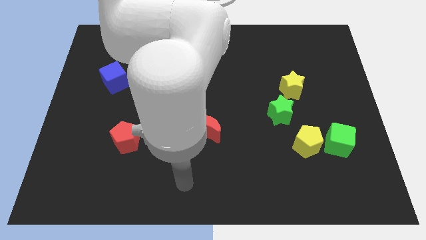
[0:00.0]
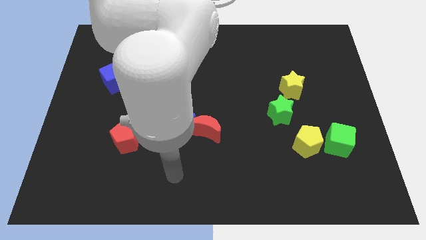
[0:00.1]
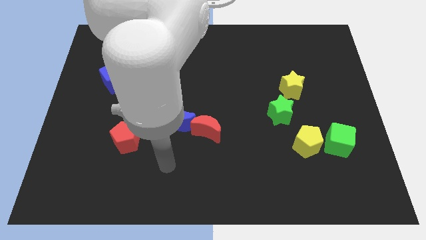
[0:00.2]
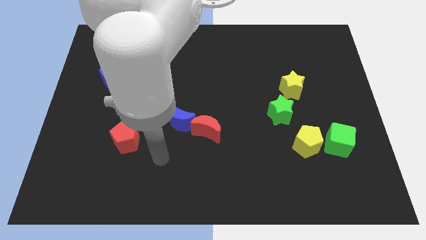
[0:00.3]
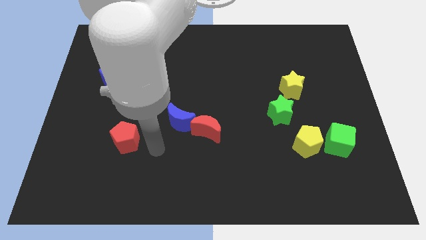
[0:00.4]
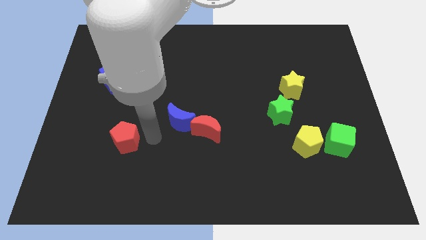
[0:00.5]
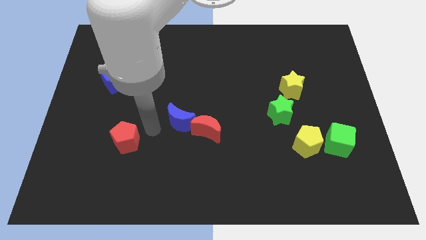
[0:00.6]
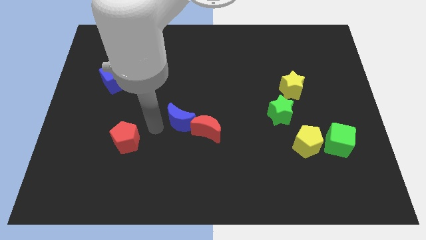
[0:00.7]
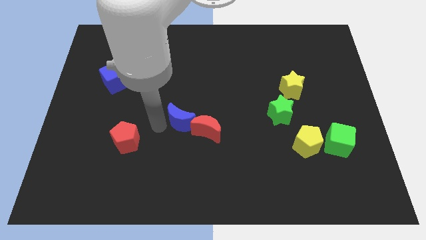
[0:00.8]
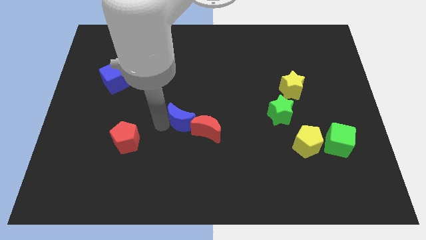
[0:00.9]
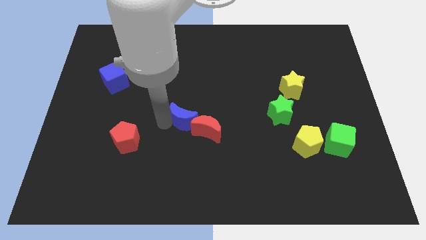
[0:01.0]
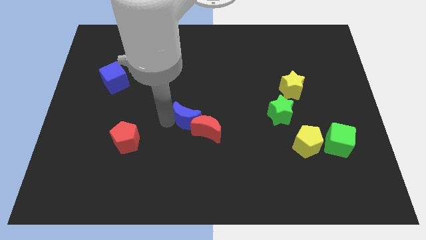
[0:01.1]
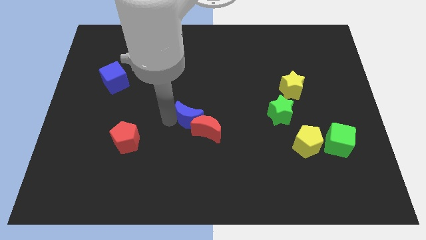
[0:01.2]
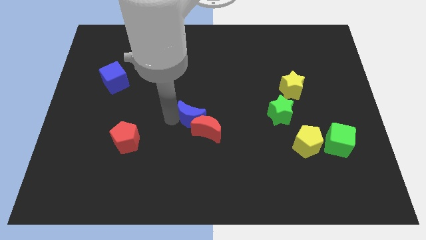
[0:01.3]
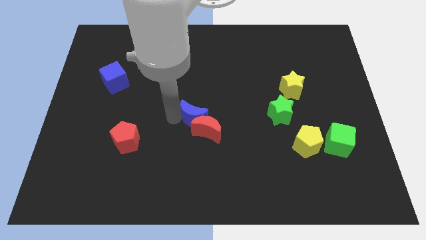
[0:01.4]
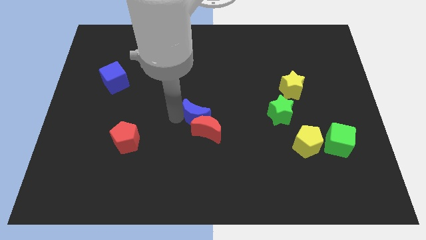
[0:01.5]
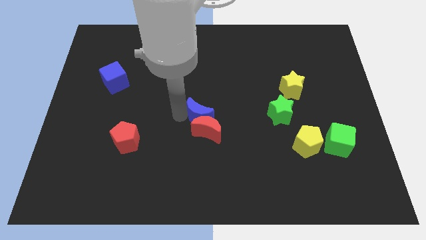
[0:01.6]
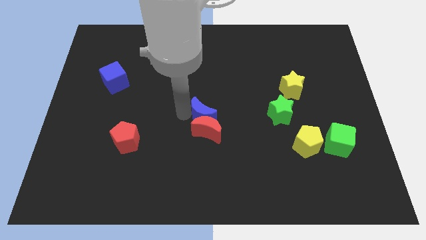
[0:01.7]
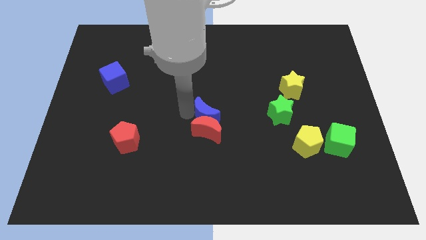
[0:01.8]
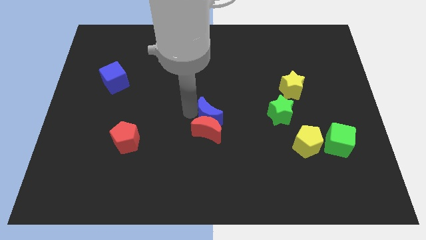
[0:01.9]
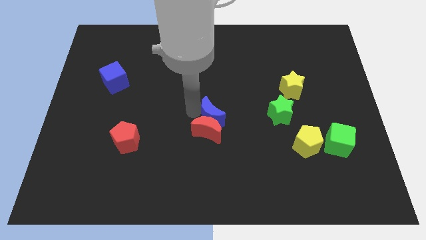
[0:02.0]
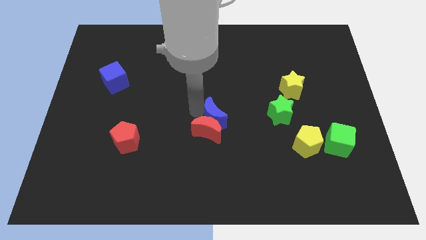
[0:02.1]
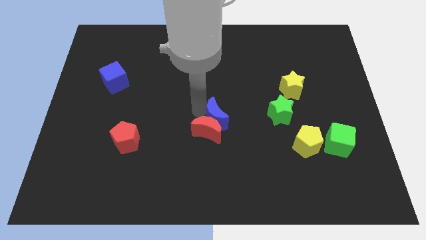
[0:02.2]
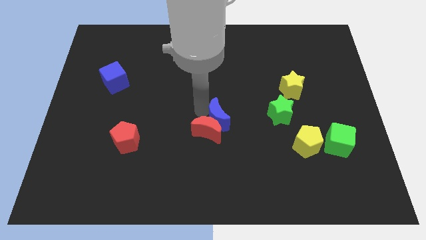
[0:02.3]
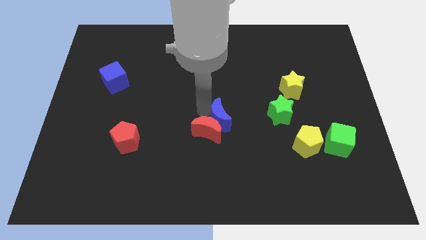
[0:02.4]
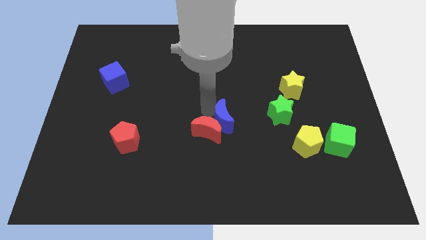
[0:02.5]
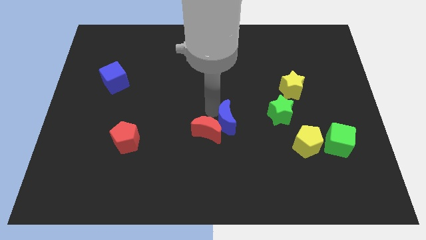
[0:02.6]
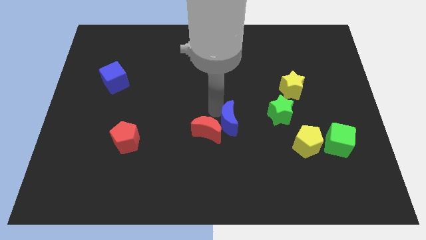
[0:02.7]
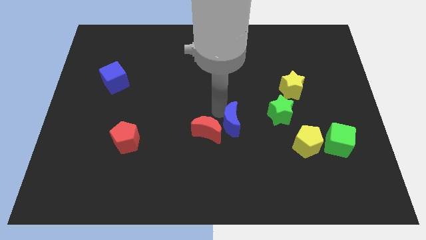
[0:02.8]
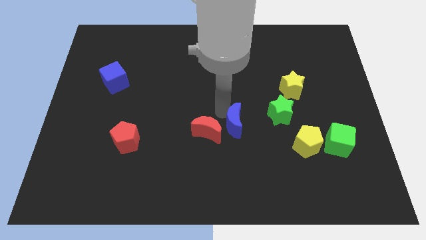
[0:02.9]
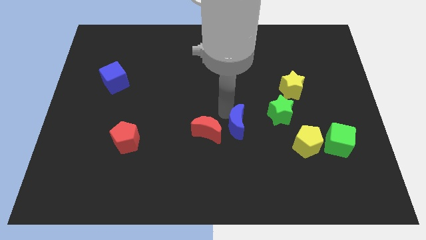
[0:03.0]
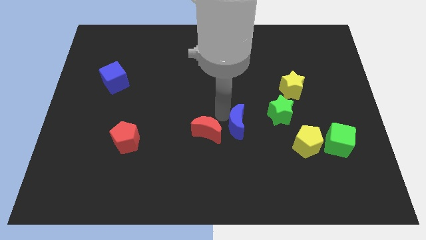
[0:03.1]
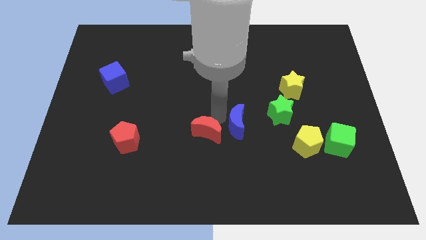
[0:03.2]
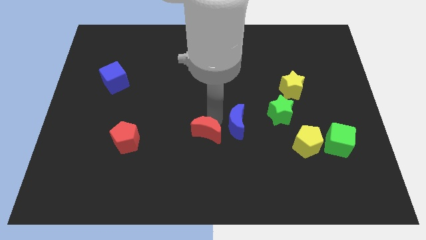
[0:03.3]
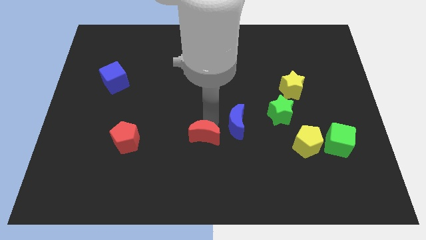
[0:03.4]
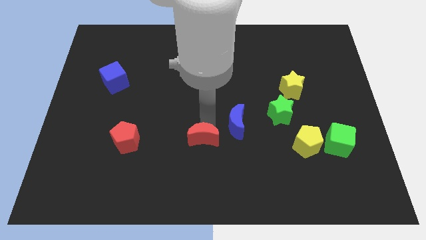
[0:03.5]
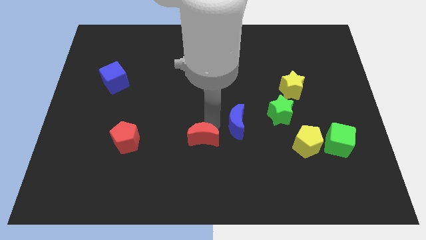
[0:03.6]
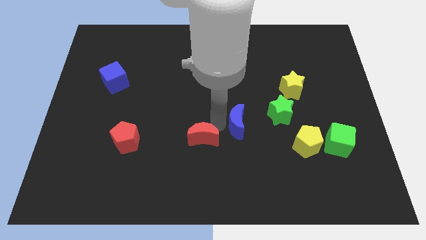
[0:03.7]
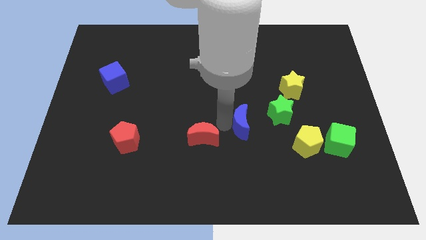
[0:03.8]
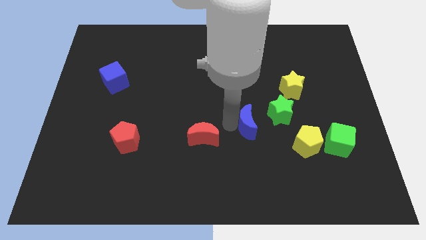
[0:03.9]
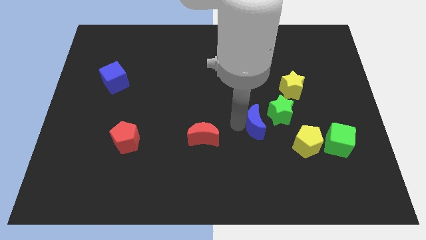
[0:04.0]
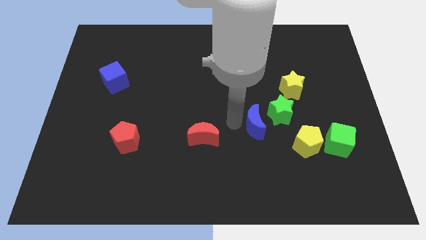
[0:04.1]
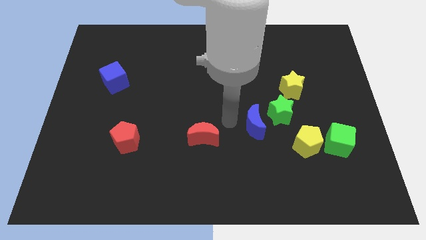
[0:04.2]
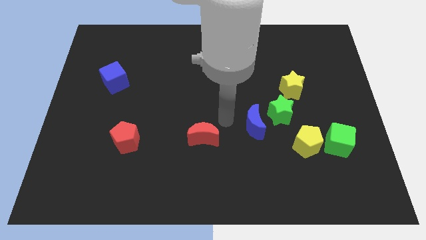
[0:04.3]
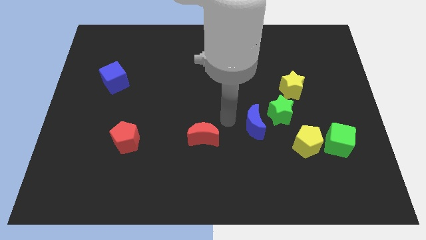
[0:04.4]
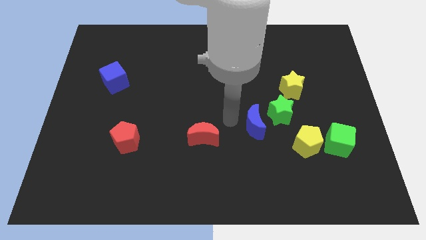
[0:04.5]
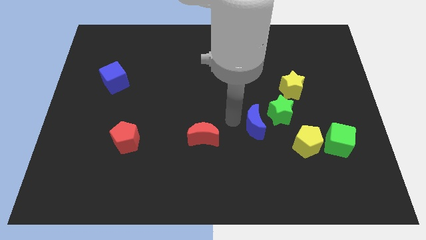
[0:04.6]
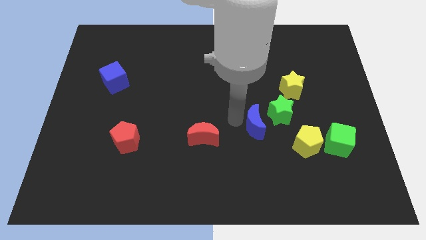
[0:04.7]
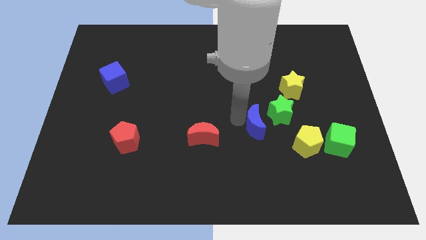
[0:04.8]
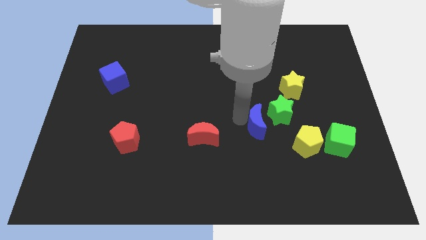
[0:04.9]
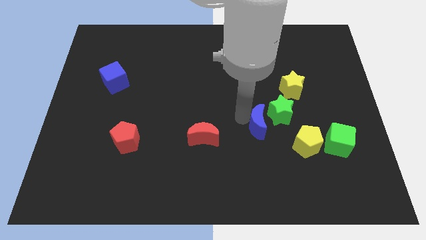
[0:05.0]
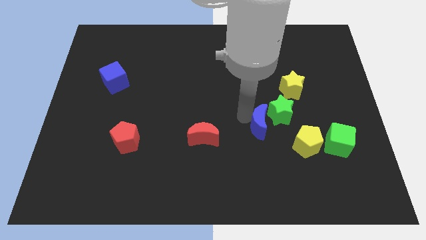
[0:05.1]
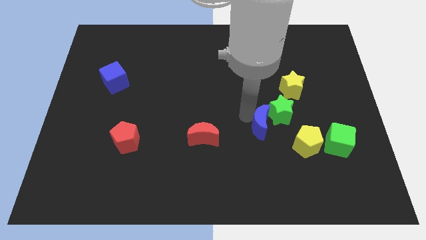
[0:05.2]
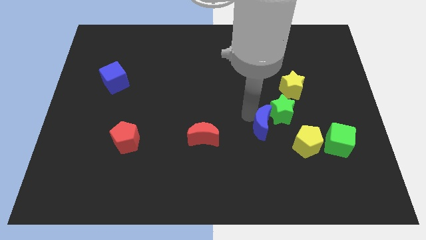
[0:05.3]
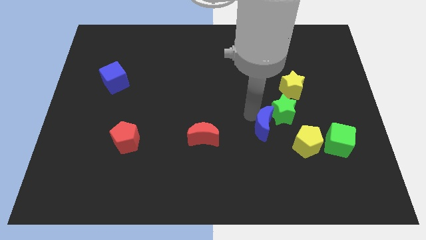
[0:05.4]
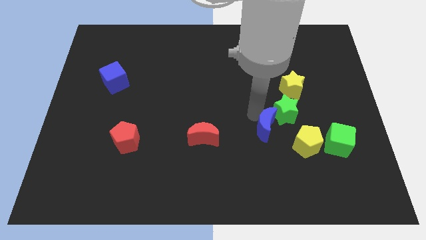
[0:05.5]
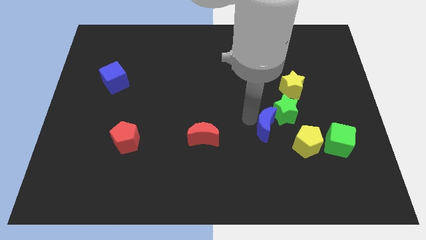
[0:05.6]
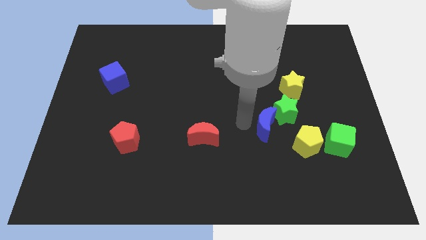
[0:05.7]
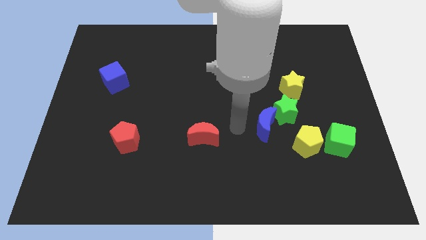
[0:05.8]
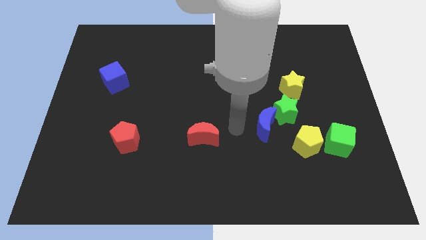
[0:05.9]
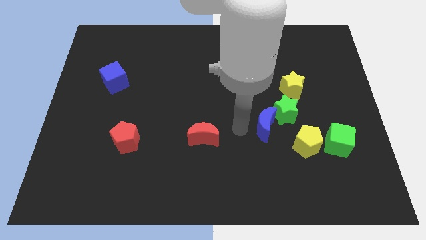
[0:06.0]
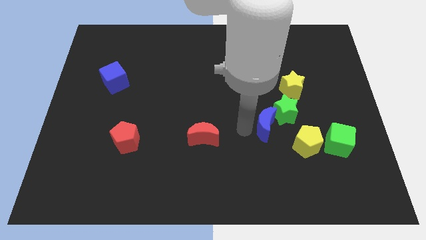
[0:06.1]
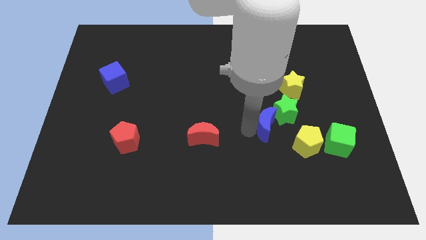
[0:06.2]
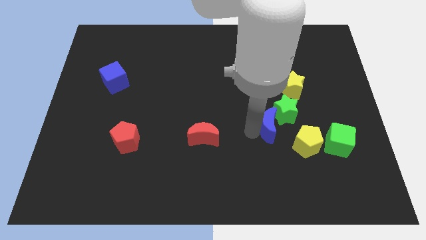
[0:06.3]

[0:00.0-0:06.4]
slide the blue moon to the right

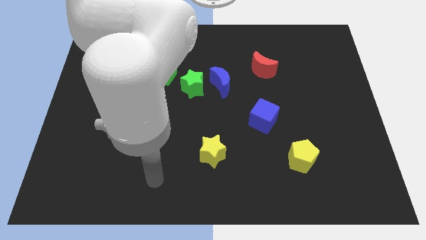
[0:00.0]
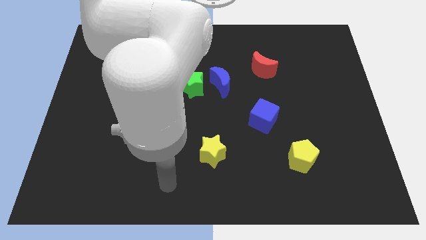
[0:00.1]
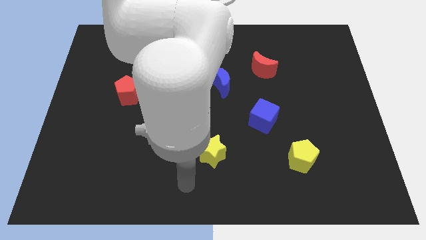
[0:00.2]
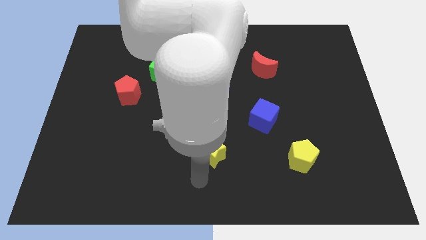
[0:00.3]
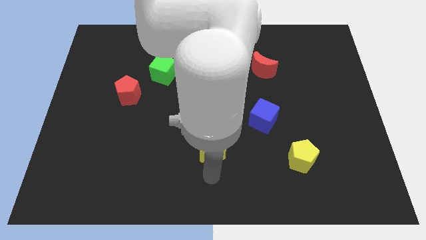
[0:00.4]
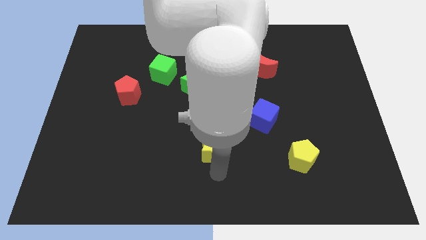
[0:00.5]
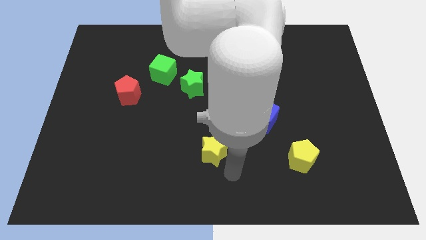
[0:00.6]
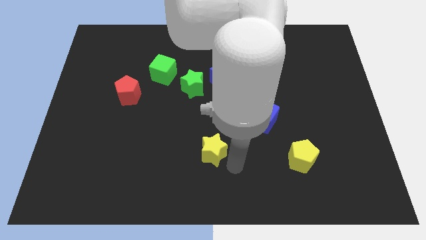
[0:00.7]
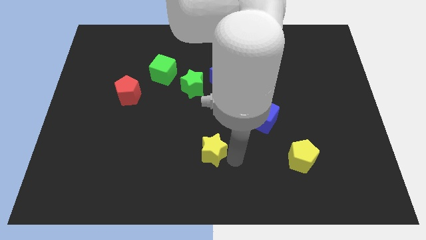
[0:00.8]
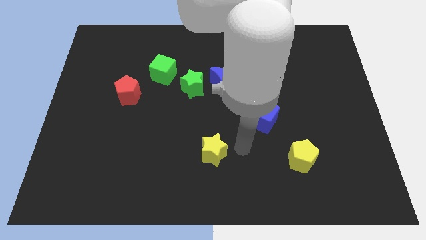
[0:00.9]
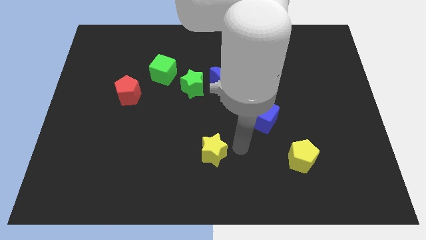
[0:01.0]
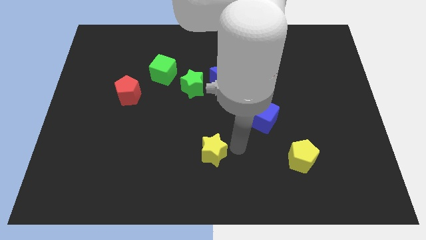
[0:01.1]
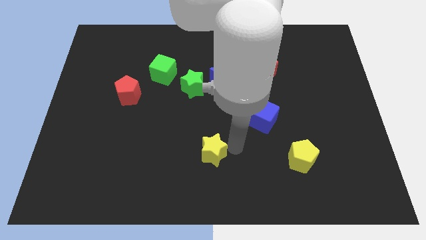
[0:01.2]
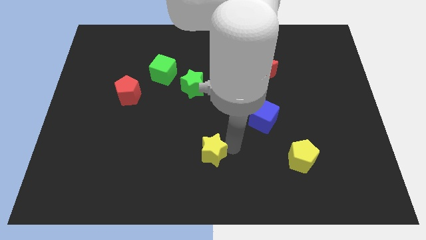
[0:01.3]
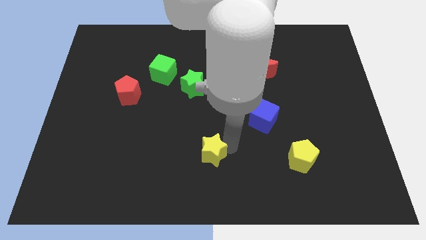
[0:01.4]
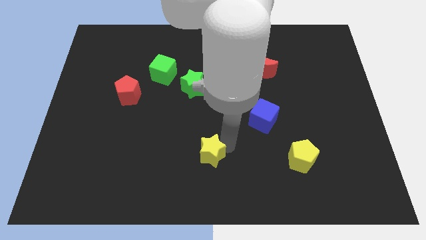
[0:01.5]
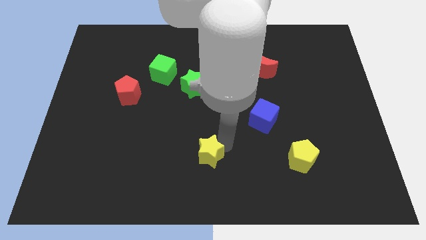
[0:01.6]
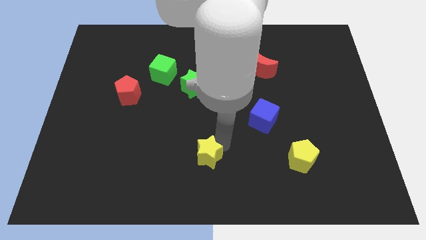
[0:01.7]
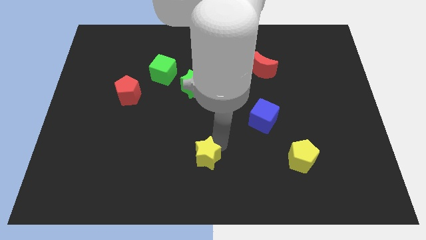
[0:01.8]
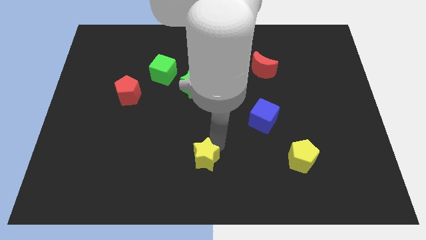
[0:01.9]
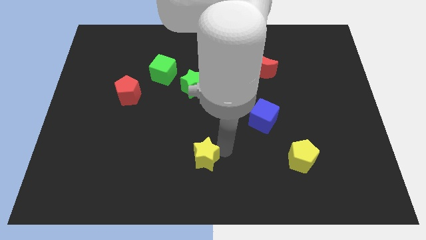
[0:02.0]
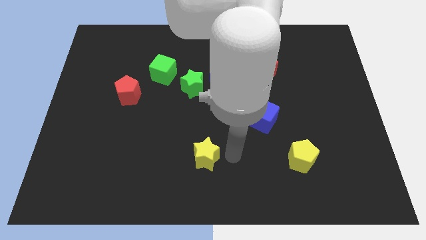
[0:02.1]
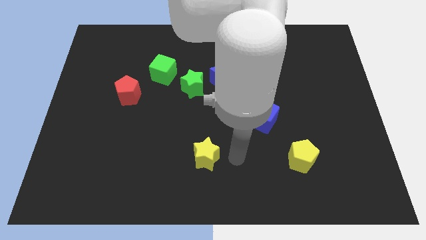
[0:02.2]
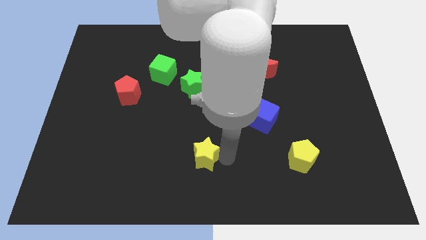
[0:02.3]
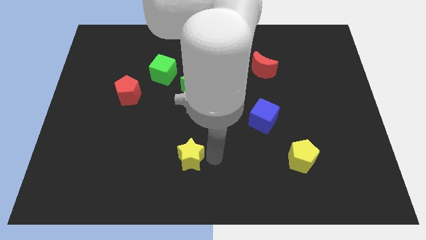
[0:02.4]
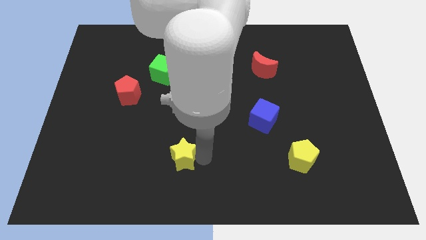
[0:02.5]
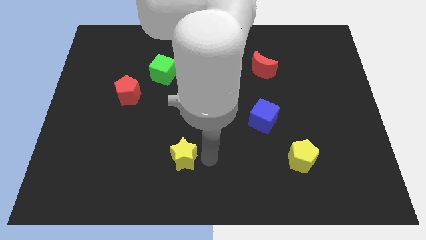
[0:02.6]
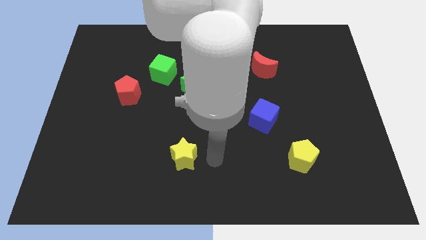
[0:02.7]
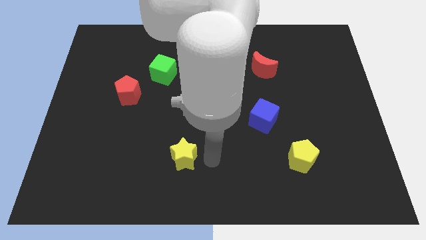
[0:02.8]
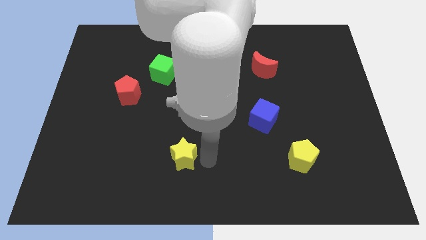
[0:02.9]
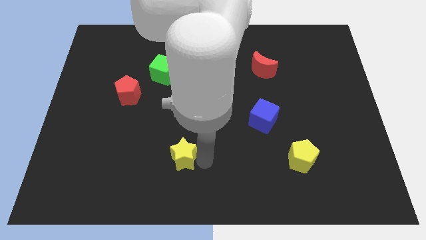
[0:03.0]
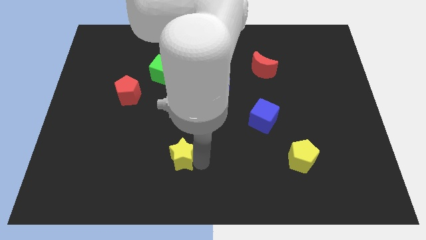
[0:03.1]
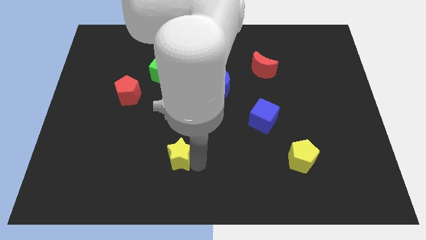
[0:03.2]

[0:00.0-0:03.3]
slightly push the yellow star to the left
